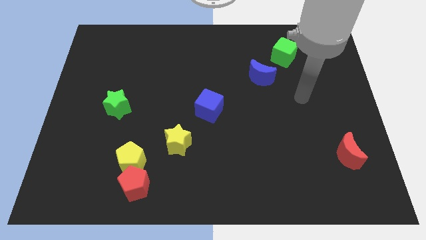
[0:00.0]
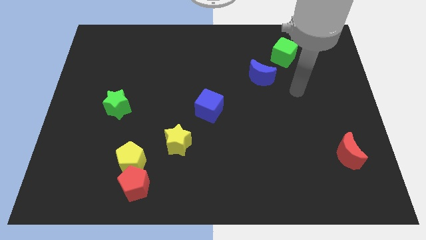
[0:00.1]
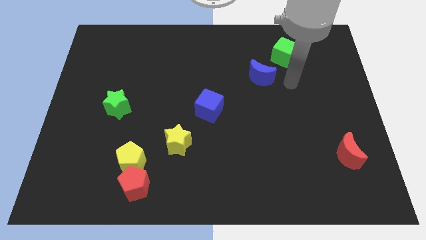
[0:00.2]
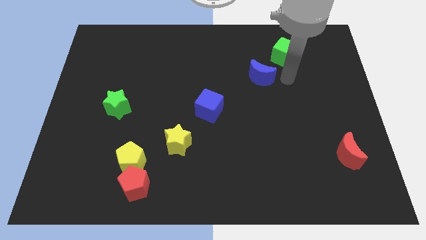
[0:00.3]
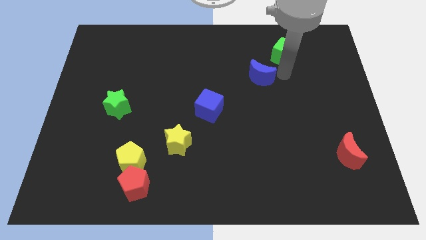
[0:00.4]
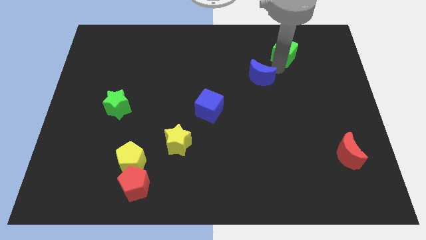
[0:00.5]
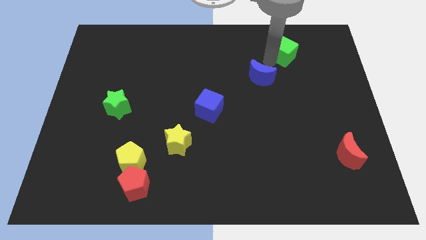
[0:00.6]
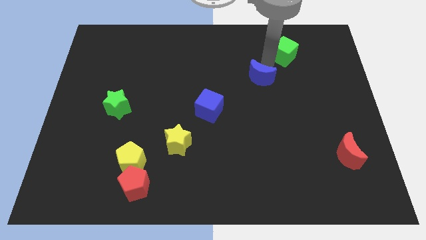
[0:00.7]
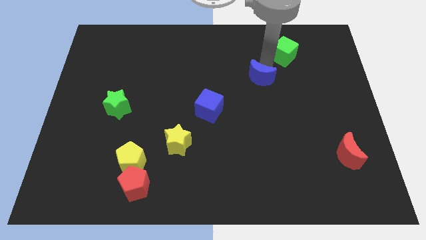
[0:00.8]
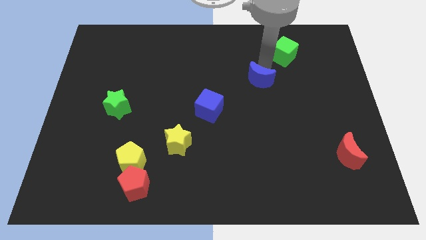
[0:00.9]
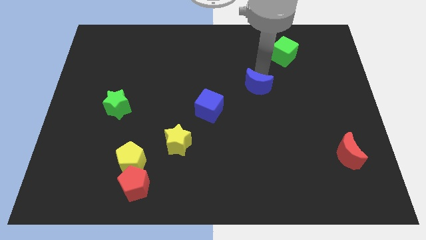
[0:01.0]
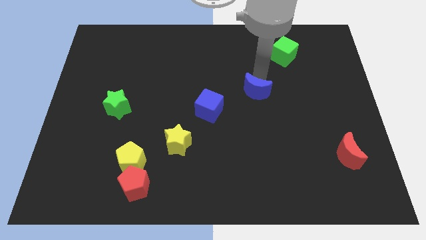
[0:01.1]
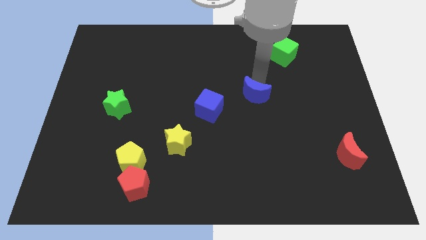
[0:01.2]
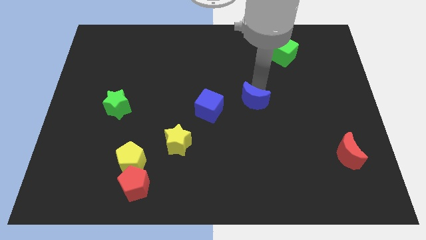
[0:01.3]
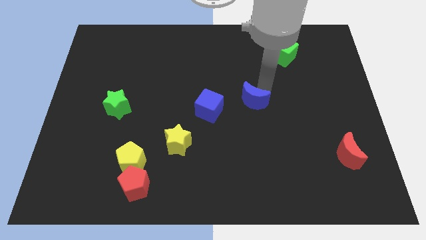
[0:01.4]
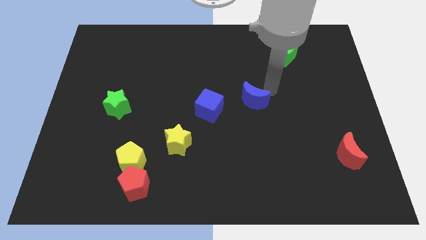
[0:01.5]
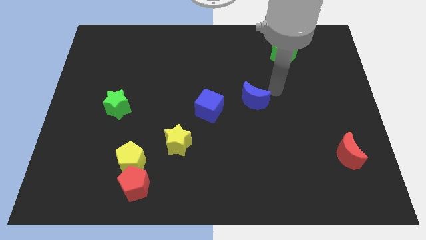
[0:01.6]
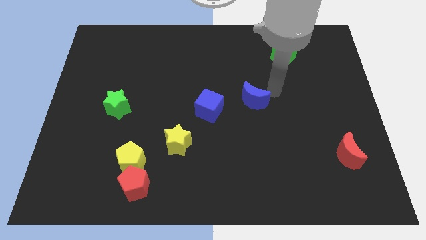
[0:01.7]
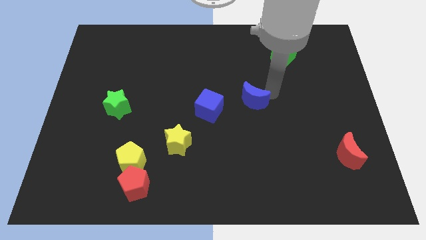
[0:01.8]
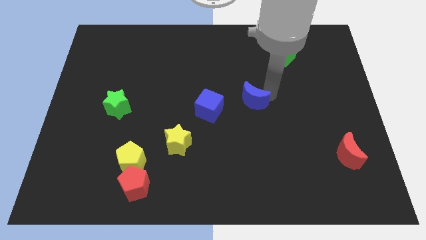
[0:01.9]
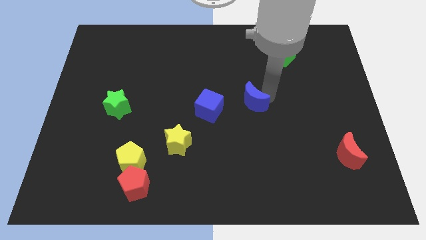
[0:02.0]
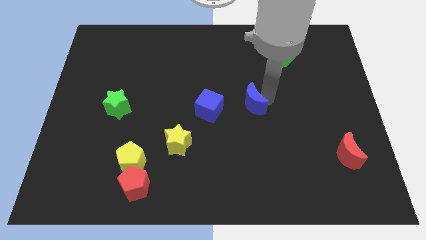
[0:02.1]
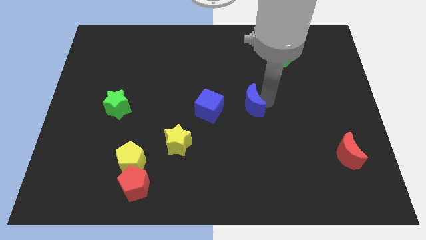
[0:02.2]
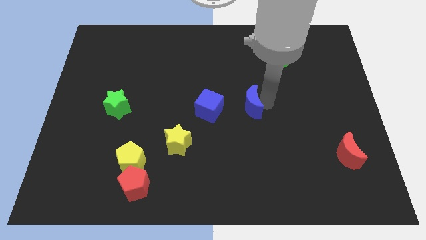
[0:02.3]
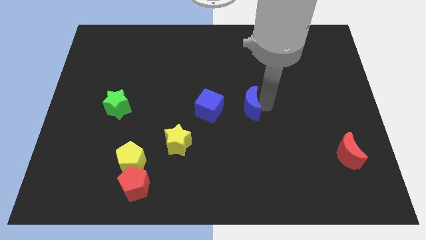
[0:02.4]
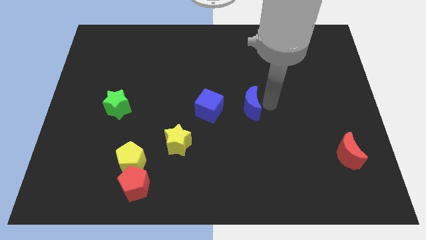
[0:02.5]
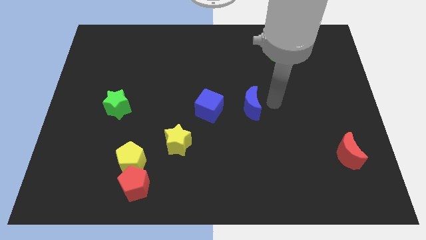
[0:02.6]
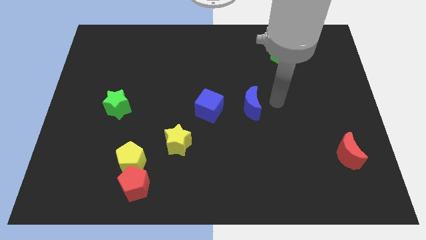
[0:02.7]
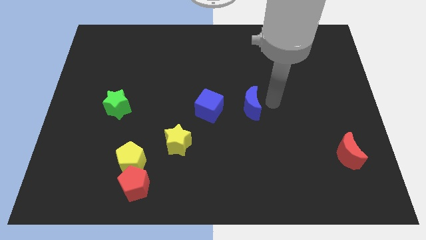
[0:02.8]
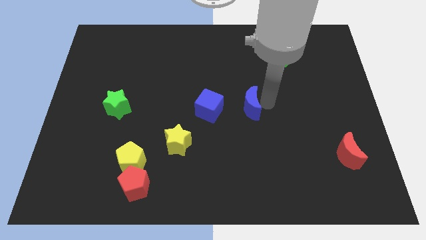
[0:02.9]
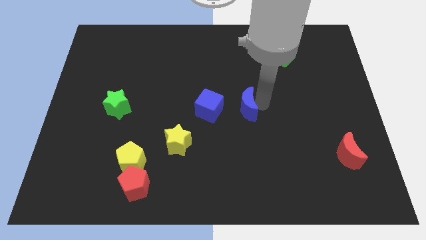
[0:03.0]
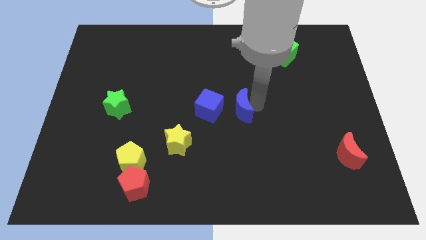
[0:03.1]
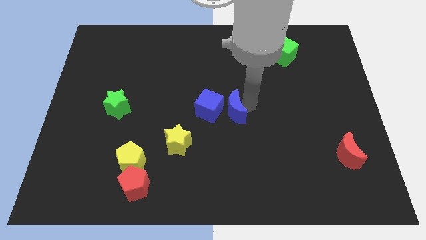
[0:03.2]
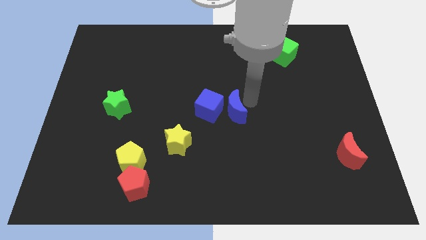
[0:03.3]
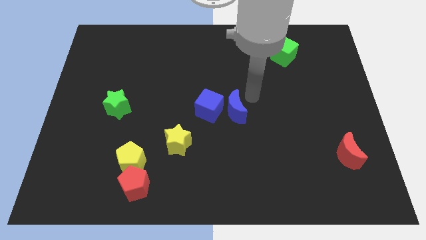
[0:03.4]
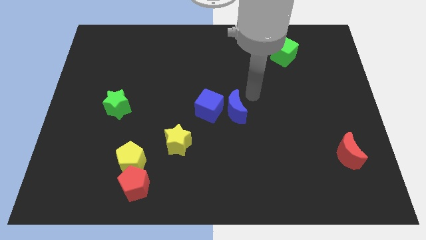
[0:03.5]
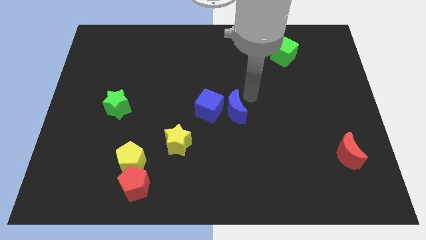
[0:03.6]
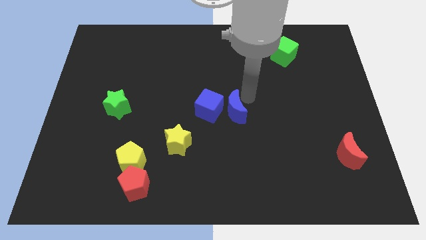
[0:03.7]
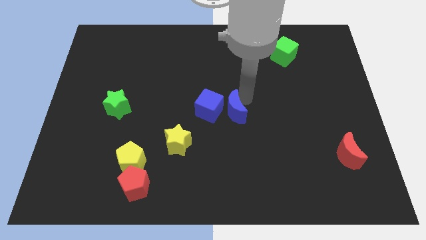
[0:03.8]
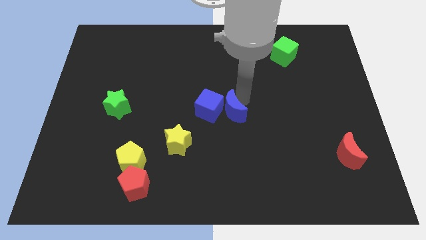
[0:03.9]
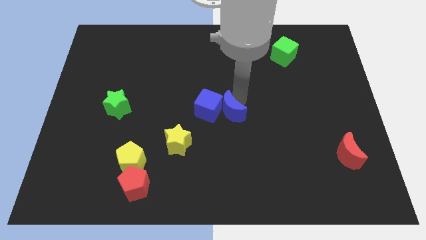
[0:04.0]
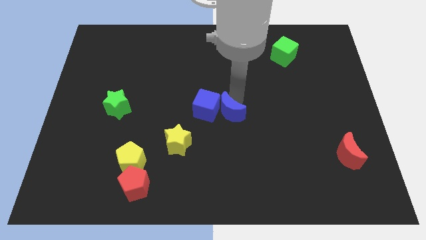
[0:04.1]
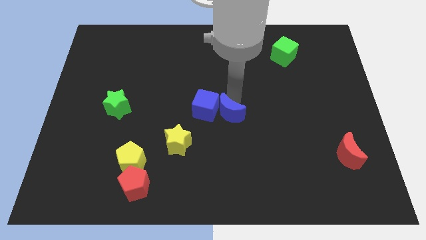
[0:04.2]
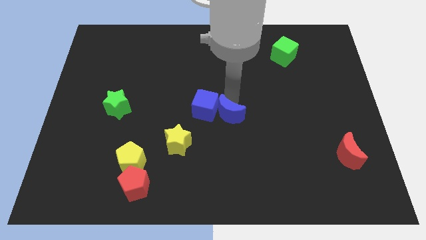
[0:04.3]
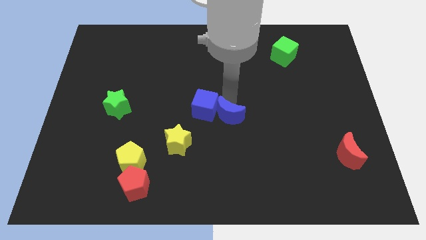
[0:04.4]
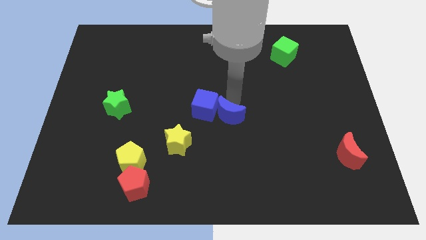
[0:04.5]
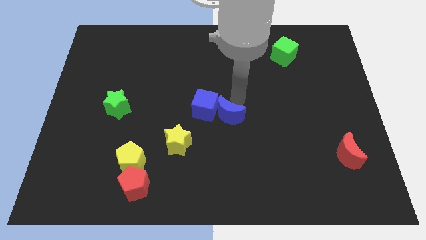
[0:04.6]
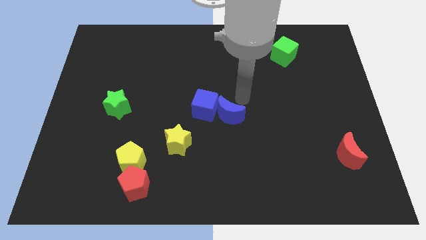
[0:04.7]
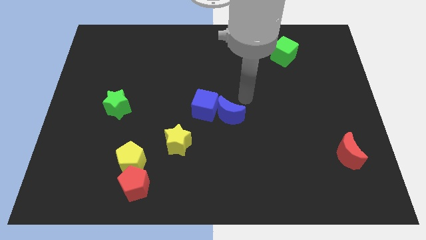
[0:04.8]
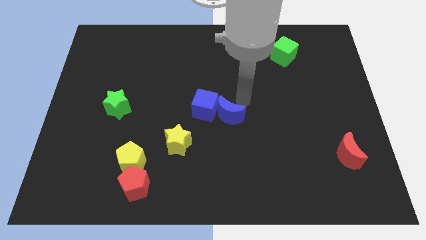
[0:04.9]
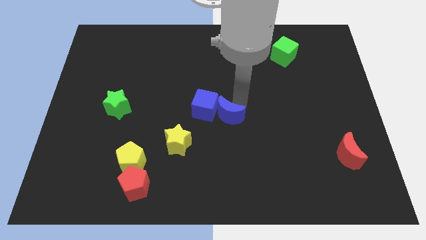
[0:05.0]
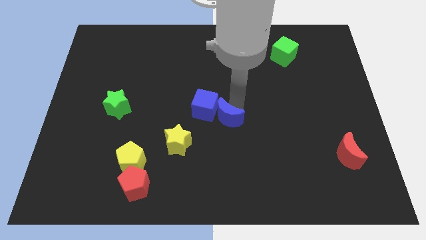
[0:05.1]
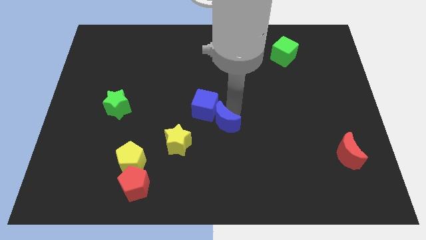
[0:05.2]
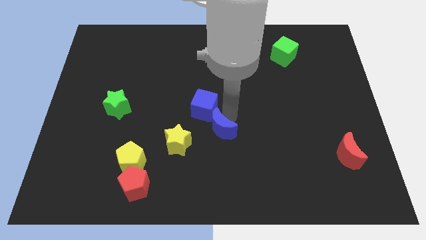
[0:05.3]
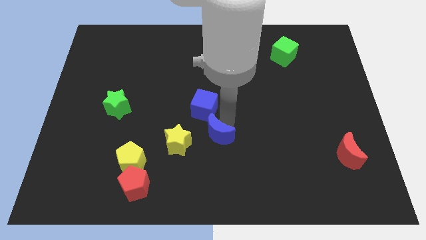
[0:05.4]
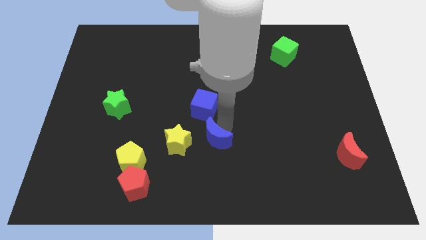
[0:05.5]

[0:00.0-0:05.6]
slide the blue moon diagonally down and left

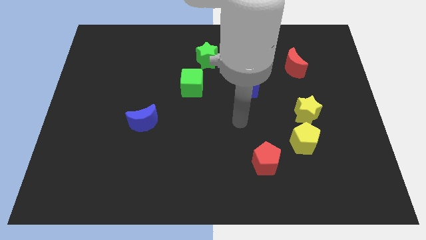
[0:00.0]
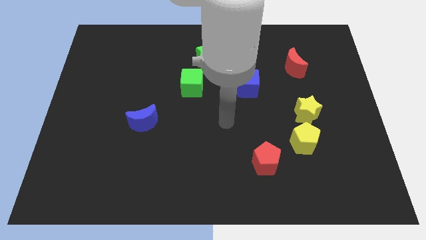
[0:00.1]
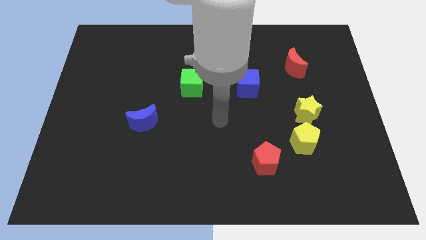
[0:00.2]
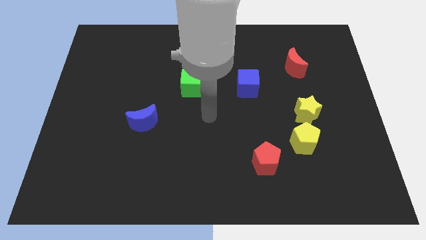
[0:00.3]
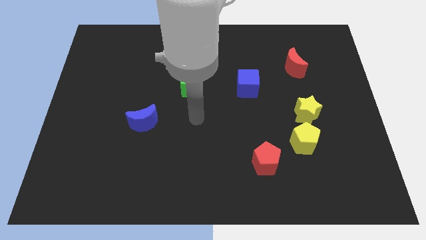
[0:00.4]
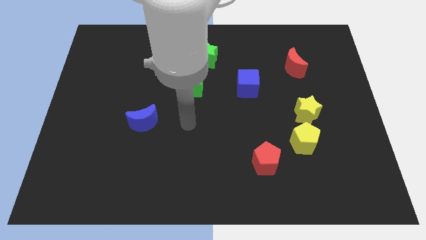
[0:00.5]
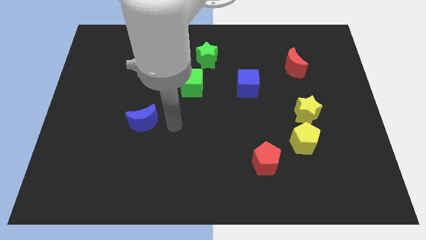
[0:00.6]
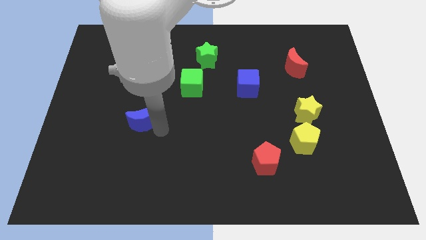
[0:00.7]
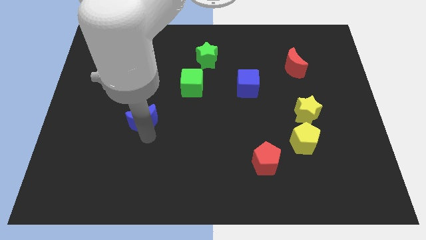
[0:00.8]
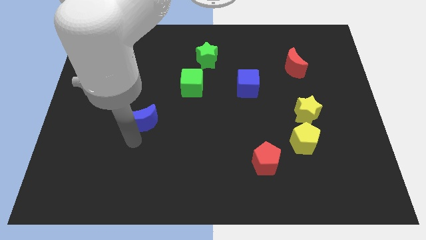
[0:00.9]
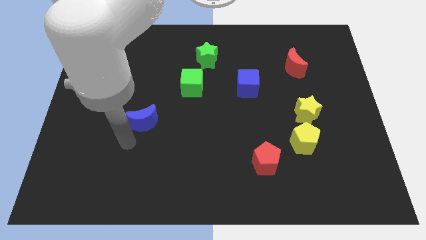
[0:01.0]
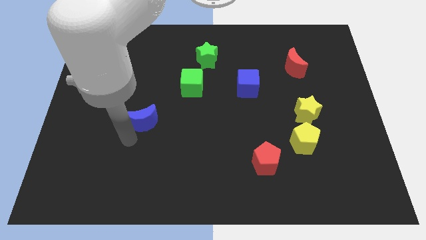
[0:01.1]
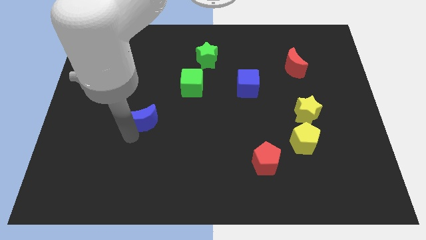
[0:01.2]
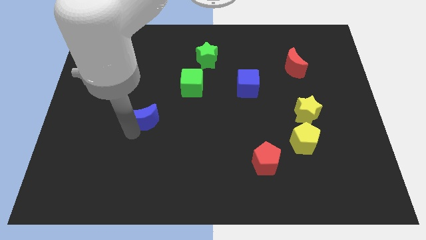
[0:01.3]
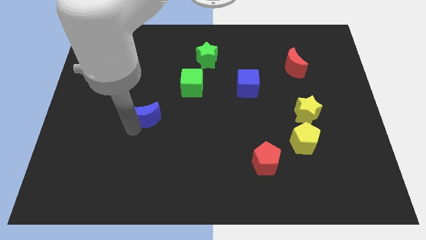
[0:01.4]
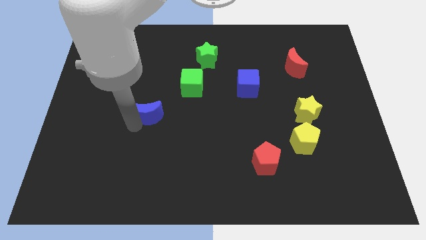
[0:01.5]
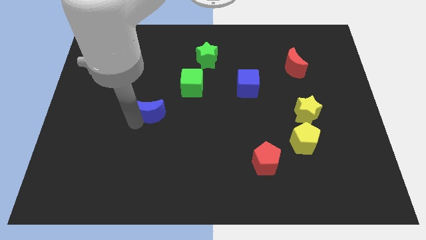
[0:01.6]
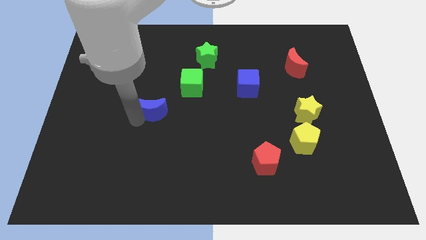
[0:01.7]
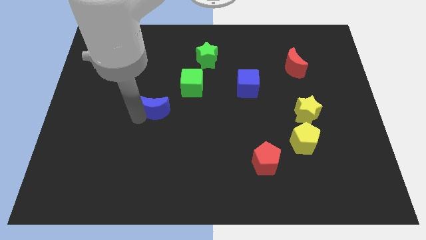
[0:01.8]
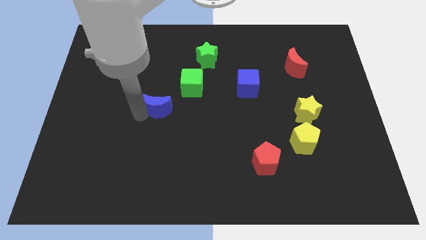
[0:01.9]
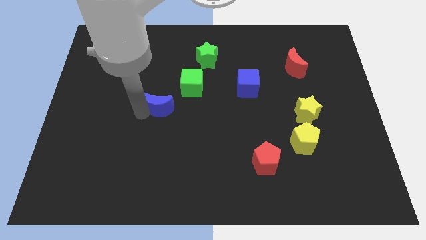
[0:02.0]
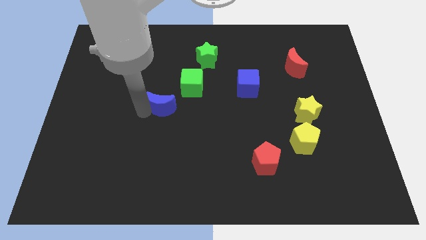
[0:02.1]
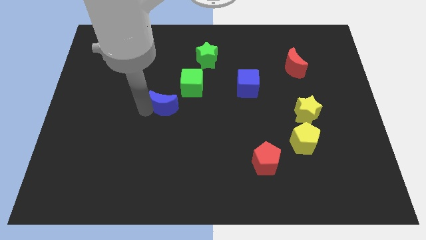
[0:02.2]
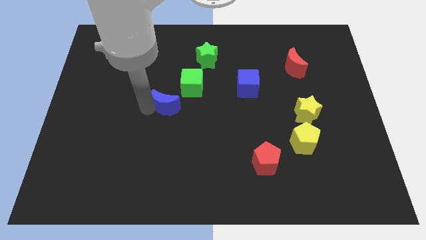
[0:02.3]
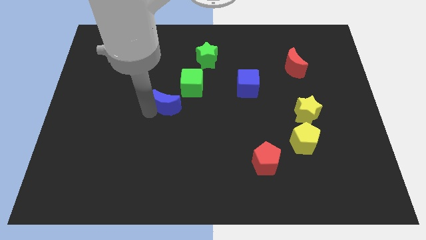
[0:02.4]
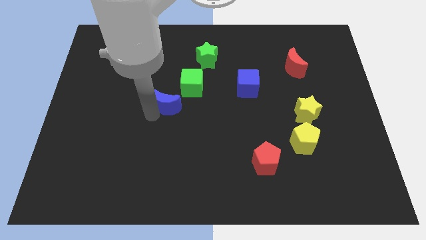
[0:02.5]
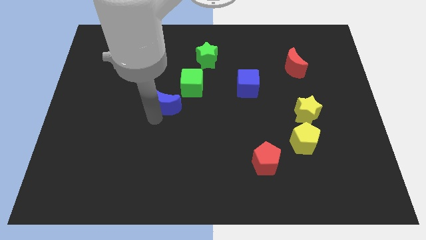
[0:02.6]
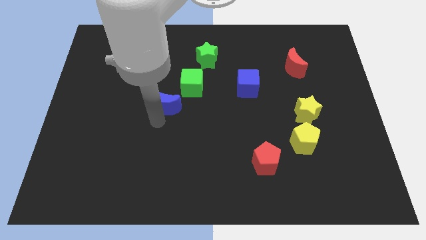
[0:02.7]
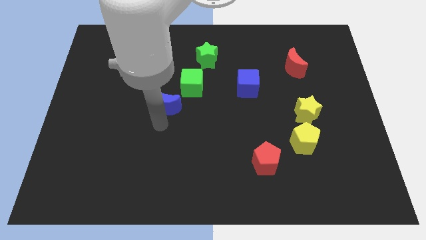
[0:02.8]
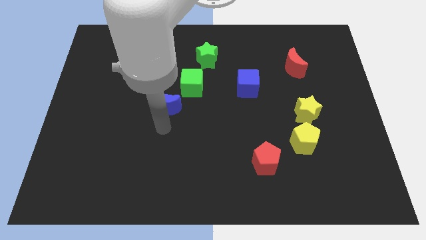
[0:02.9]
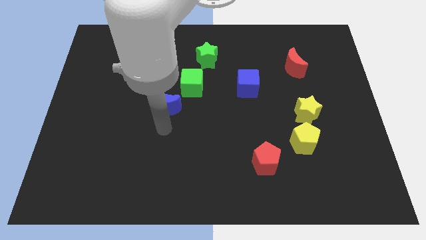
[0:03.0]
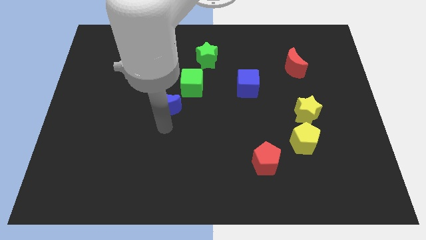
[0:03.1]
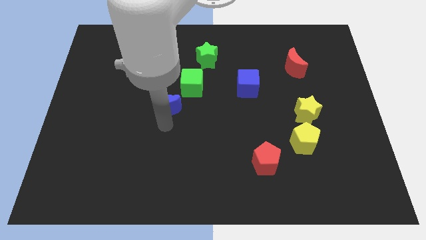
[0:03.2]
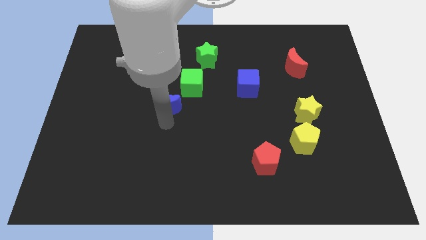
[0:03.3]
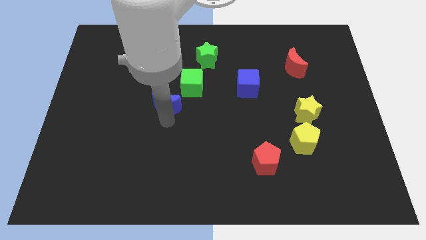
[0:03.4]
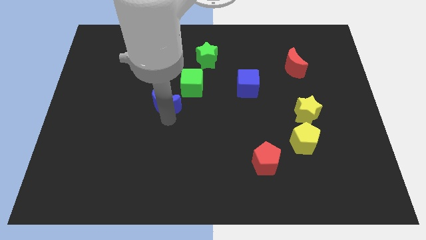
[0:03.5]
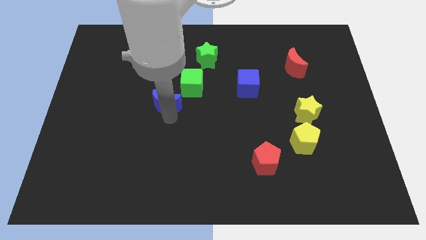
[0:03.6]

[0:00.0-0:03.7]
slightly move the blue moon diagonally up and to the right
